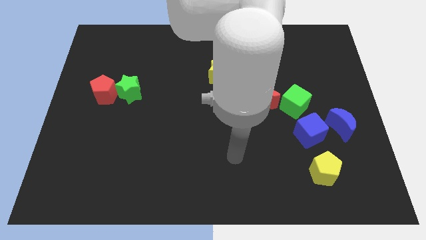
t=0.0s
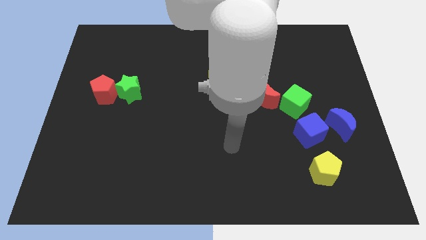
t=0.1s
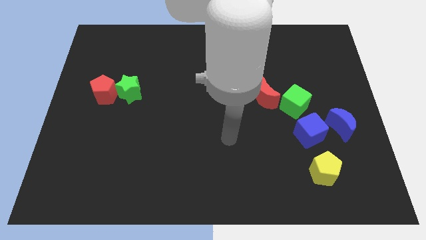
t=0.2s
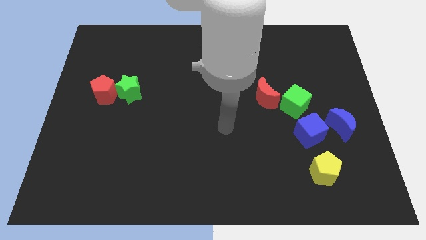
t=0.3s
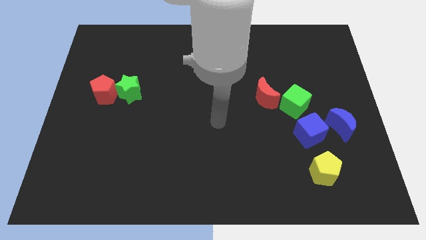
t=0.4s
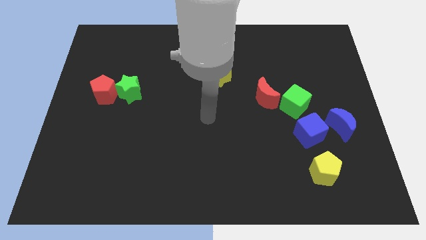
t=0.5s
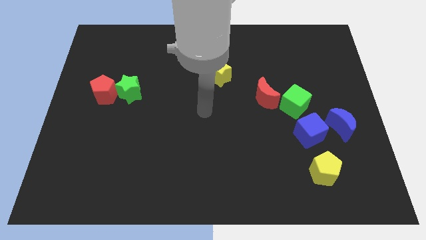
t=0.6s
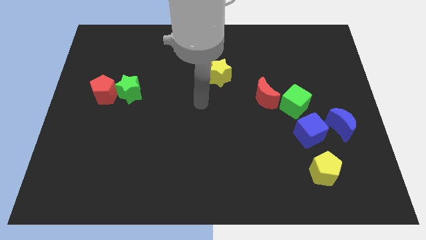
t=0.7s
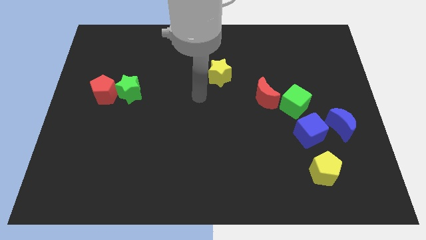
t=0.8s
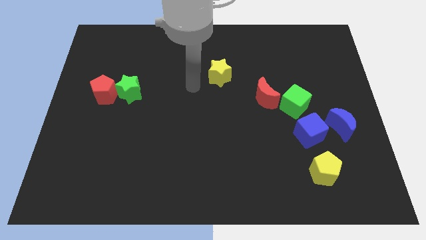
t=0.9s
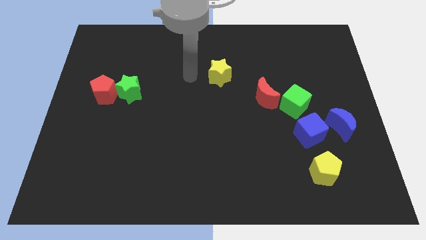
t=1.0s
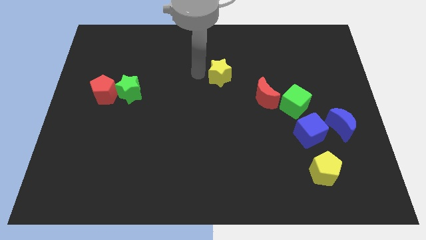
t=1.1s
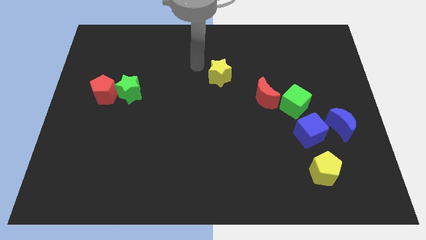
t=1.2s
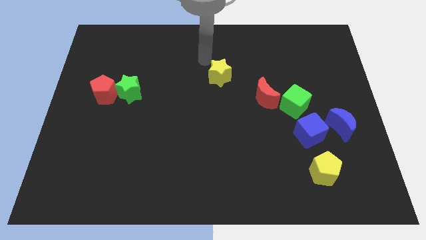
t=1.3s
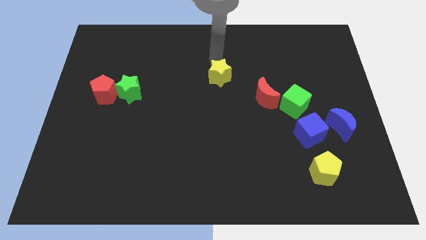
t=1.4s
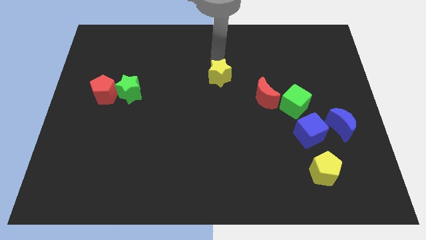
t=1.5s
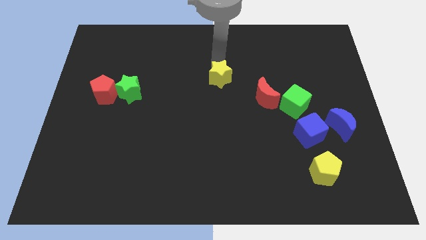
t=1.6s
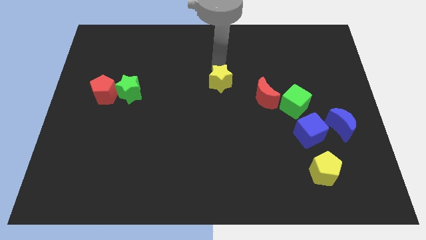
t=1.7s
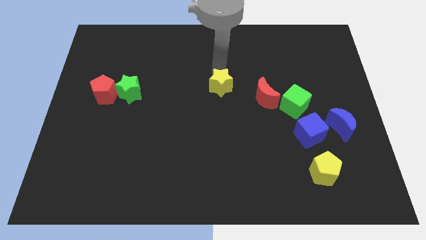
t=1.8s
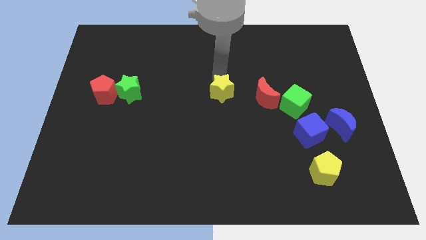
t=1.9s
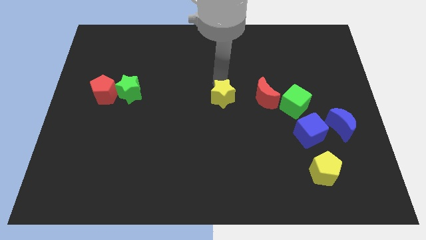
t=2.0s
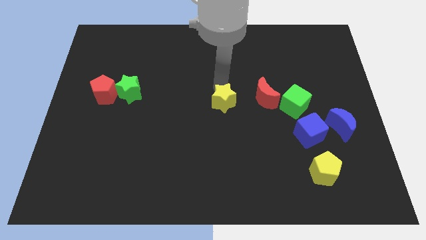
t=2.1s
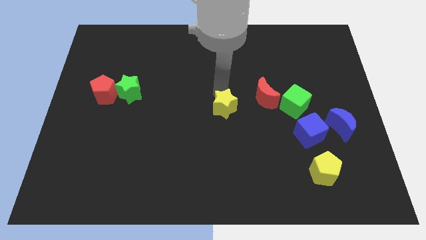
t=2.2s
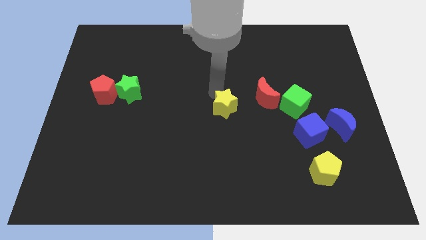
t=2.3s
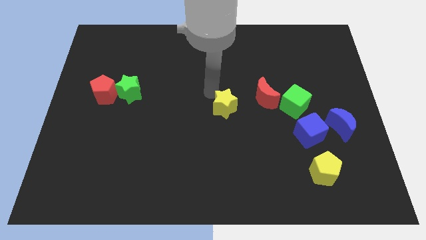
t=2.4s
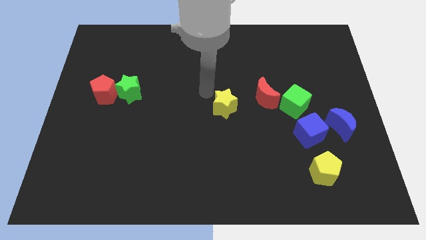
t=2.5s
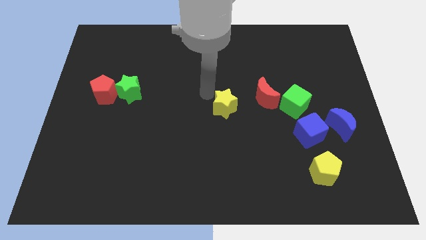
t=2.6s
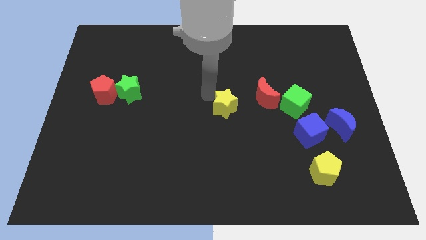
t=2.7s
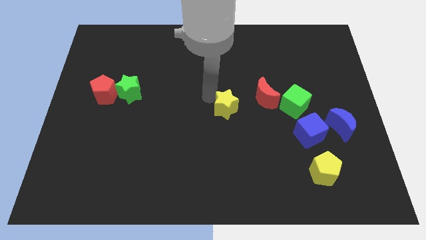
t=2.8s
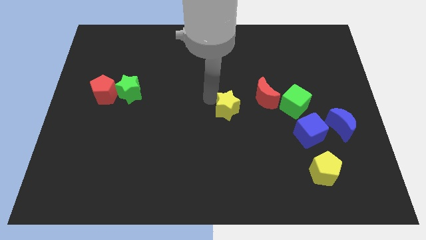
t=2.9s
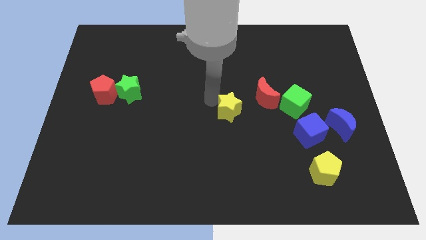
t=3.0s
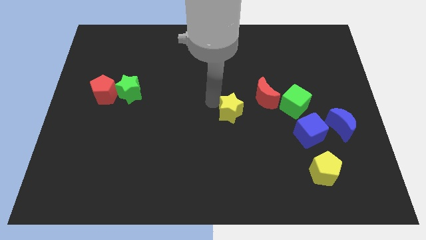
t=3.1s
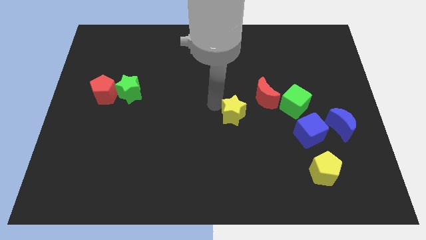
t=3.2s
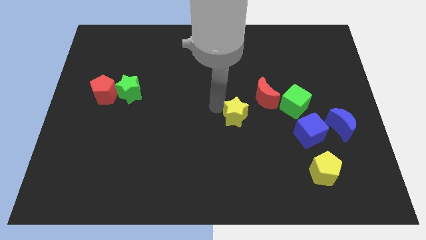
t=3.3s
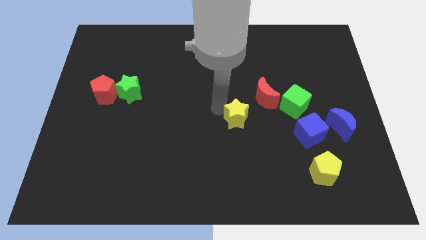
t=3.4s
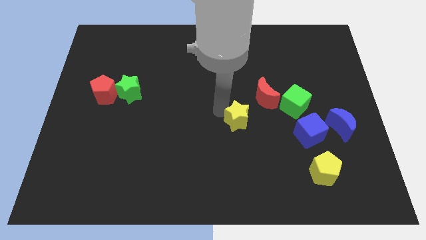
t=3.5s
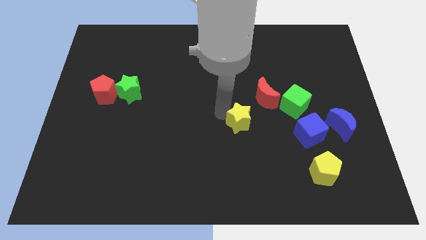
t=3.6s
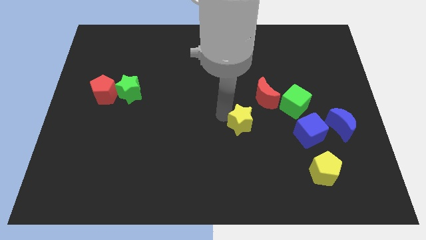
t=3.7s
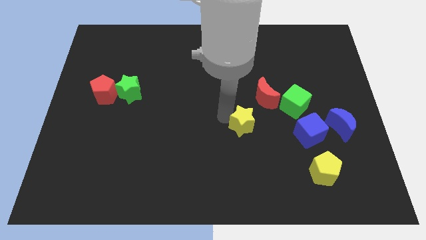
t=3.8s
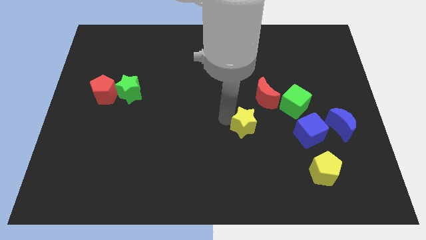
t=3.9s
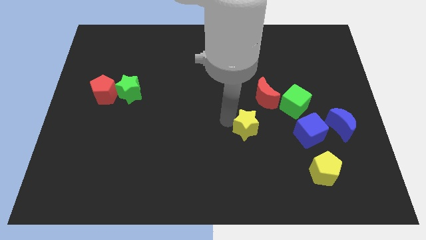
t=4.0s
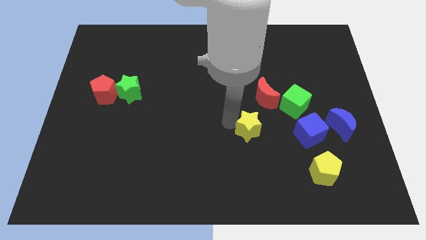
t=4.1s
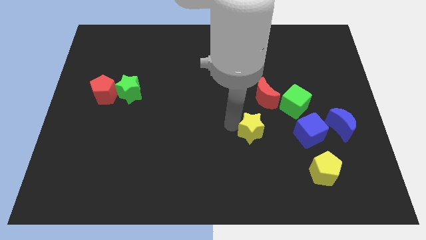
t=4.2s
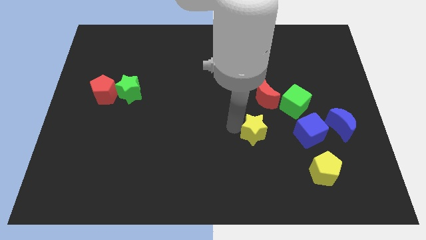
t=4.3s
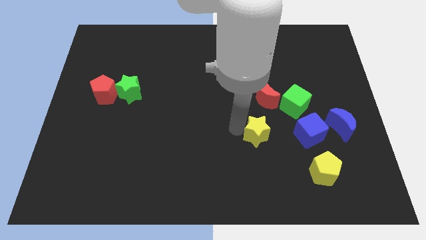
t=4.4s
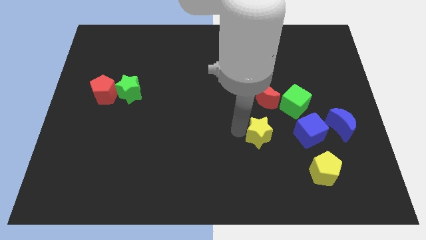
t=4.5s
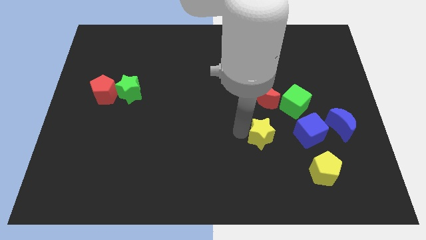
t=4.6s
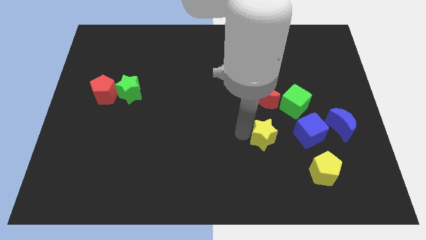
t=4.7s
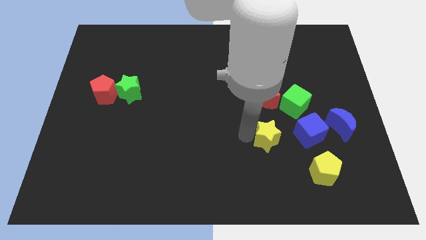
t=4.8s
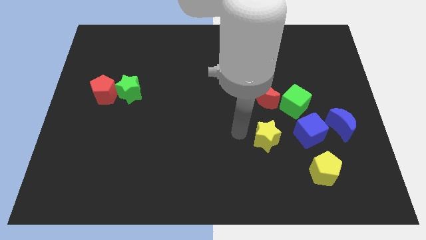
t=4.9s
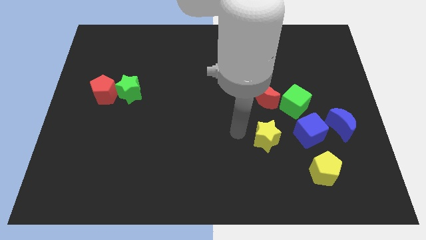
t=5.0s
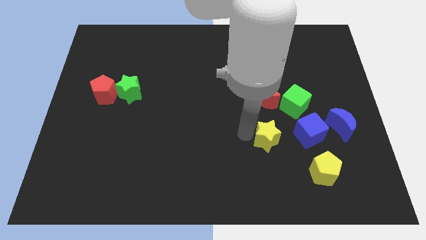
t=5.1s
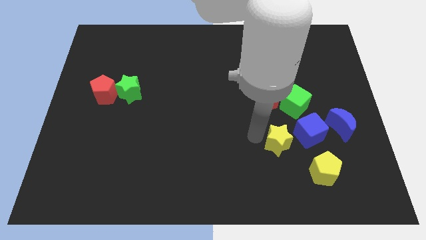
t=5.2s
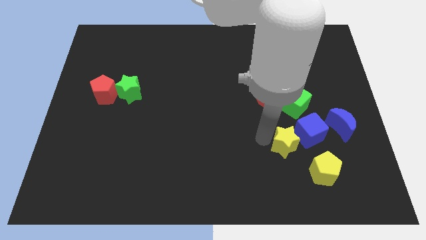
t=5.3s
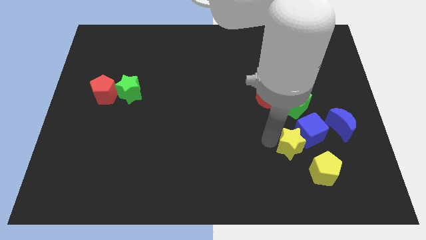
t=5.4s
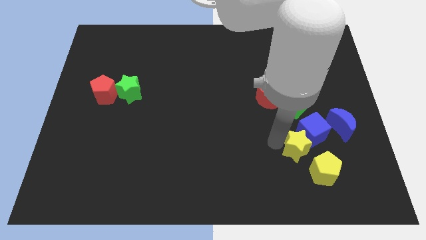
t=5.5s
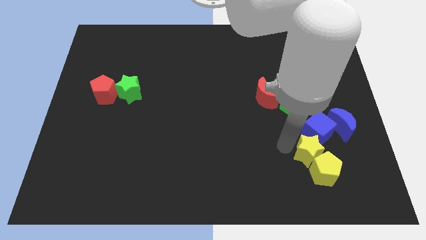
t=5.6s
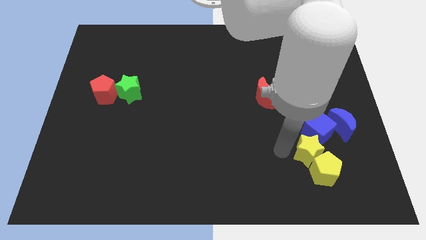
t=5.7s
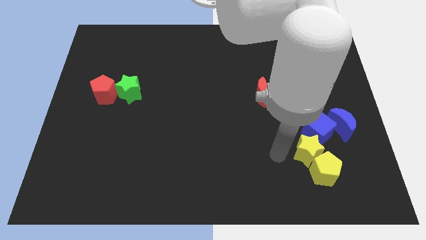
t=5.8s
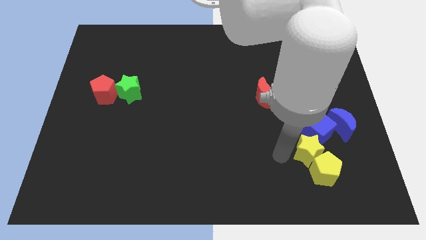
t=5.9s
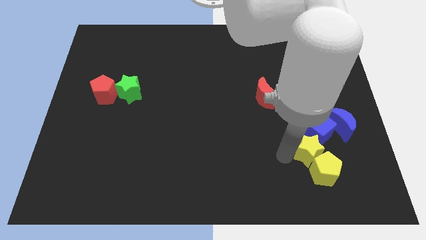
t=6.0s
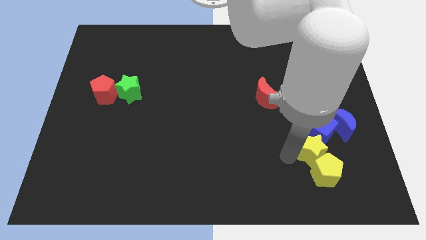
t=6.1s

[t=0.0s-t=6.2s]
slide the yellow star diagonally up and to the right of the yellow pentagon
